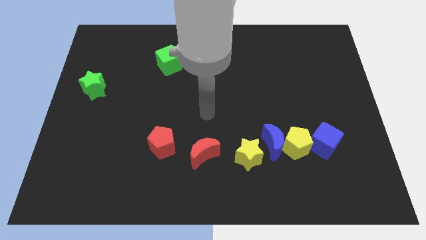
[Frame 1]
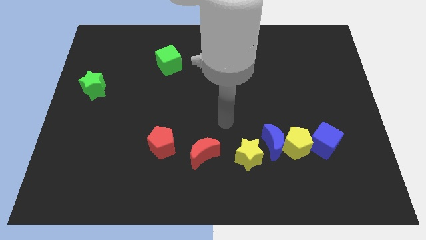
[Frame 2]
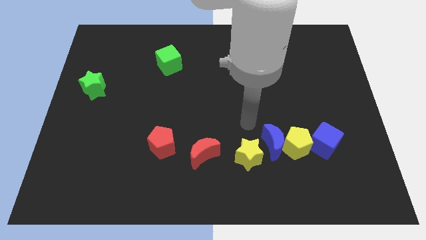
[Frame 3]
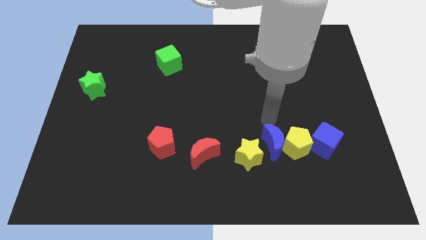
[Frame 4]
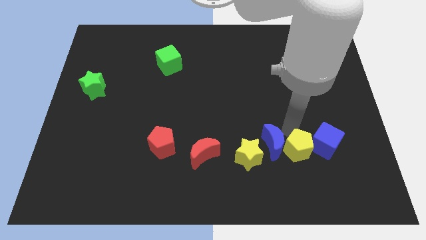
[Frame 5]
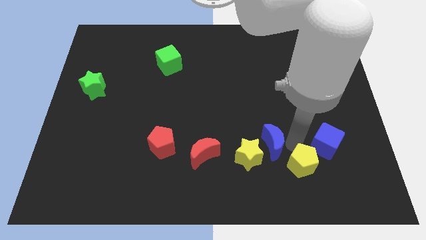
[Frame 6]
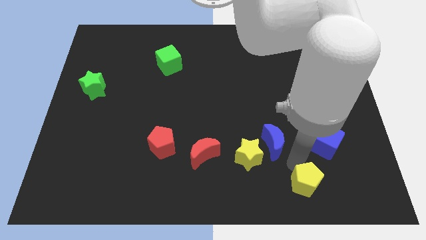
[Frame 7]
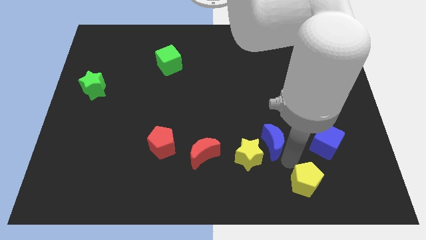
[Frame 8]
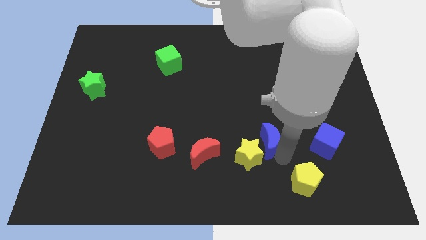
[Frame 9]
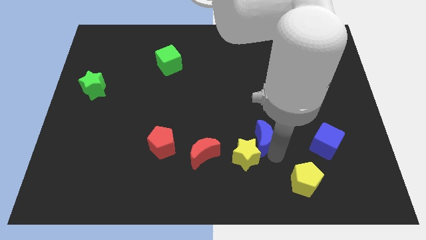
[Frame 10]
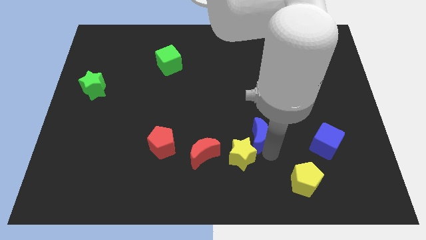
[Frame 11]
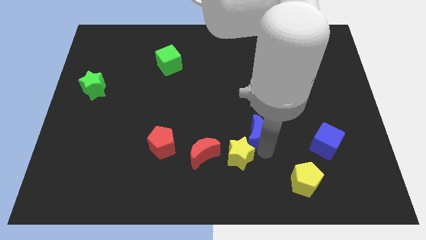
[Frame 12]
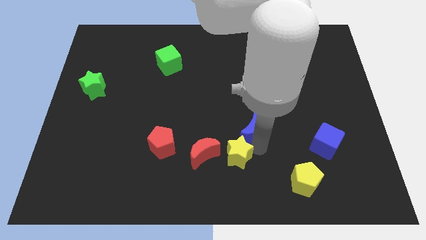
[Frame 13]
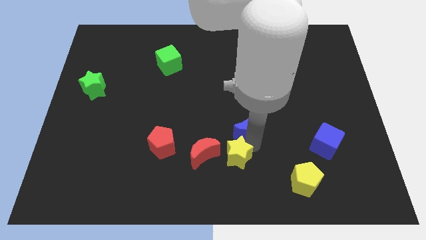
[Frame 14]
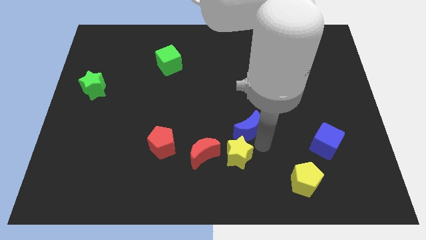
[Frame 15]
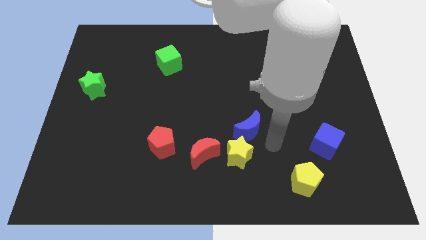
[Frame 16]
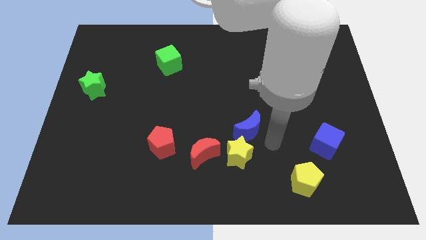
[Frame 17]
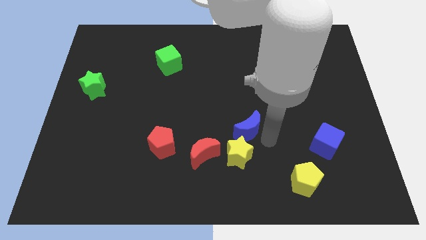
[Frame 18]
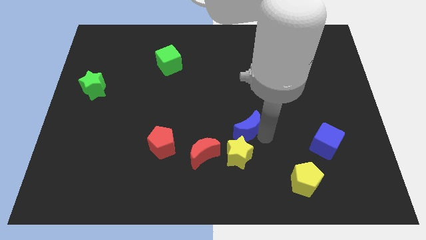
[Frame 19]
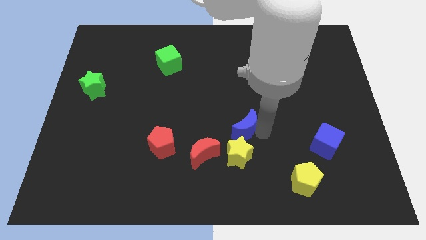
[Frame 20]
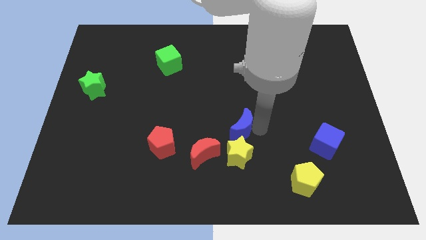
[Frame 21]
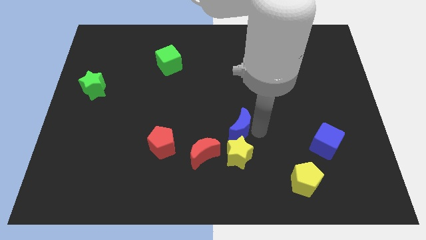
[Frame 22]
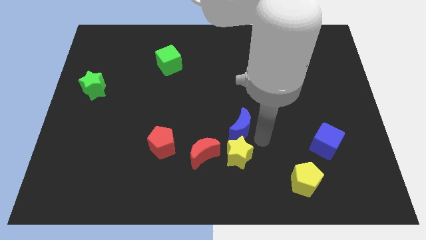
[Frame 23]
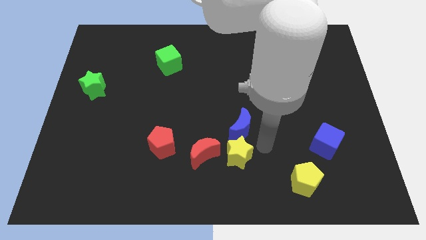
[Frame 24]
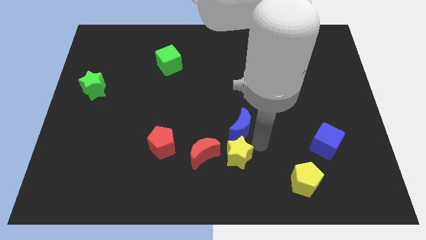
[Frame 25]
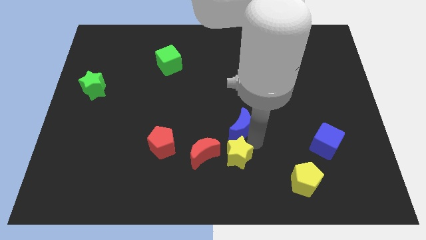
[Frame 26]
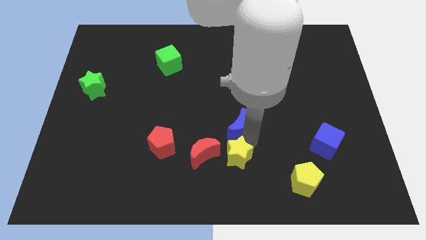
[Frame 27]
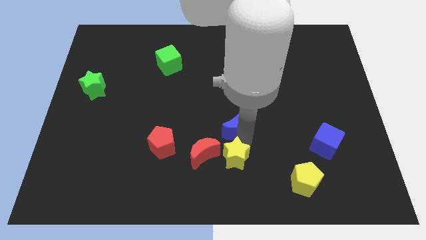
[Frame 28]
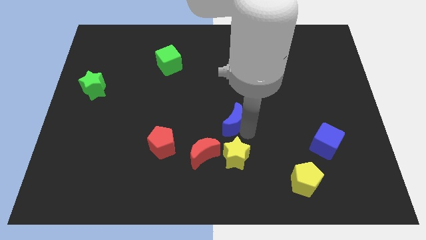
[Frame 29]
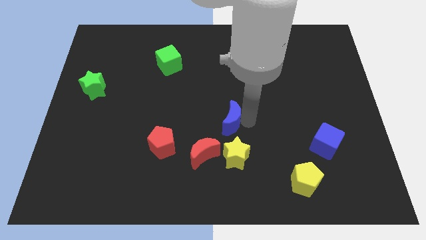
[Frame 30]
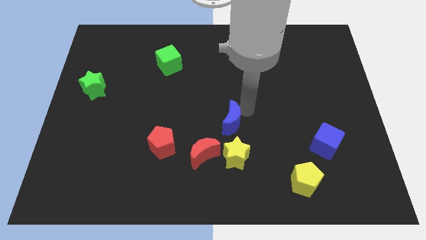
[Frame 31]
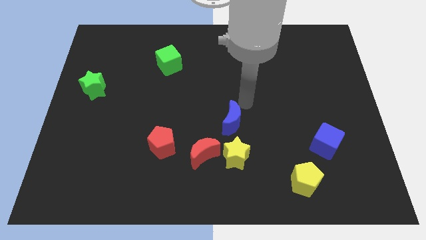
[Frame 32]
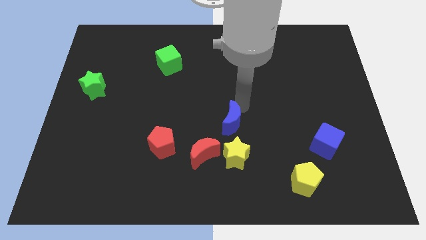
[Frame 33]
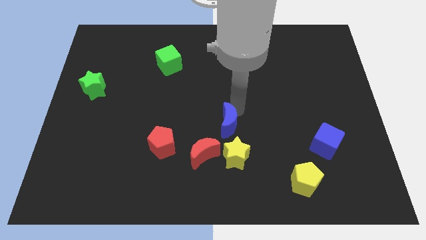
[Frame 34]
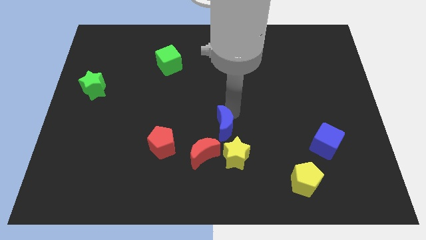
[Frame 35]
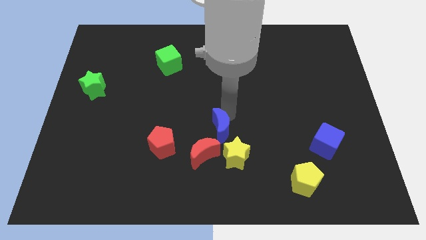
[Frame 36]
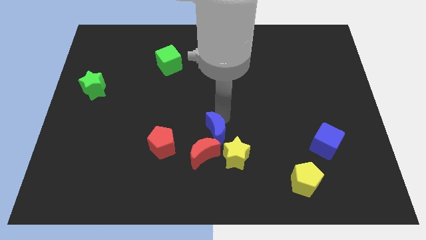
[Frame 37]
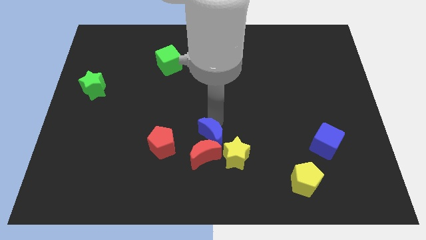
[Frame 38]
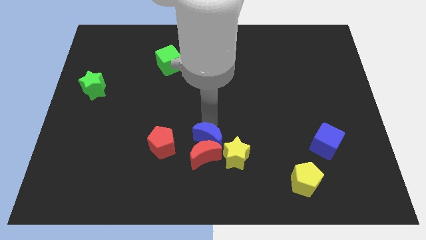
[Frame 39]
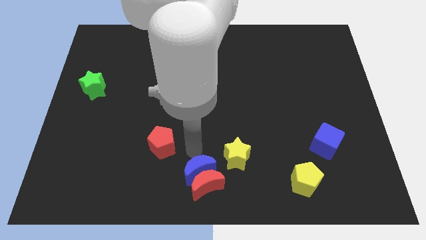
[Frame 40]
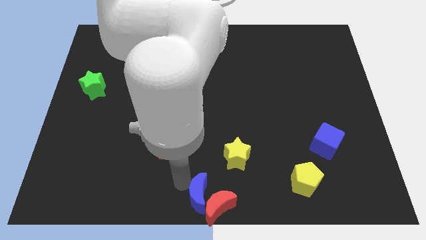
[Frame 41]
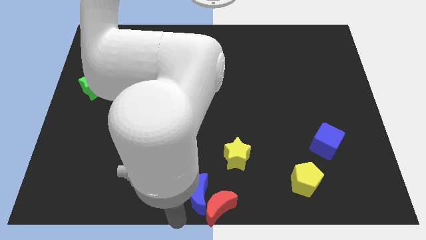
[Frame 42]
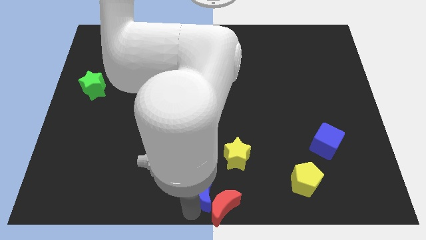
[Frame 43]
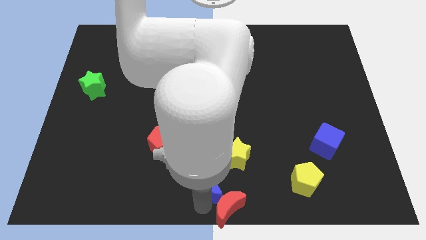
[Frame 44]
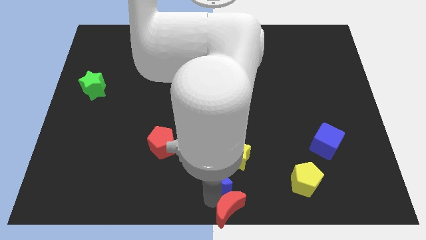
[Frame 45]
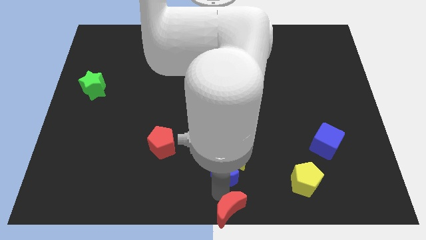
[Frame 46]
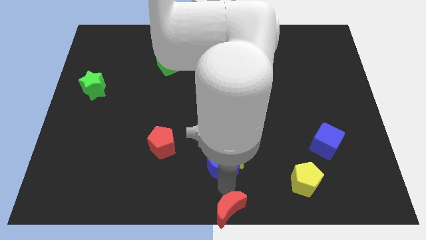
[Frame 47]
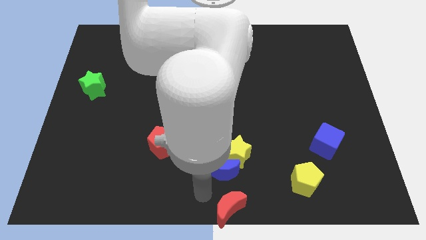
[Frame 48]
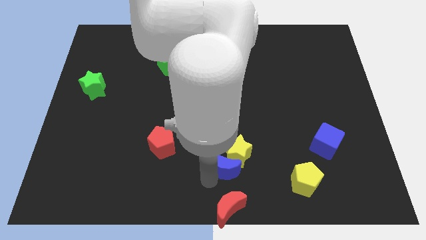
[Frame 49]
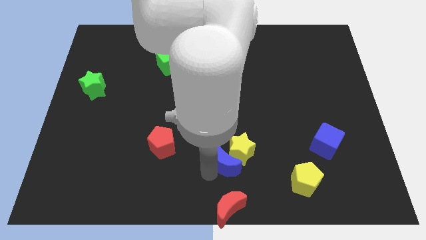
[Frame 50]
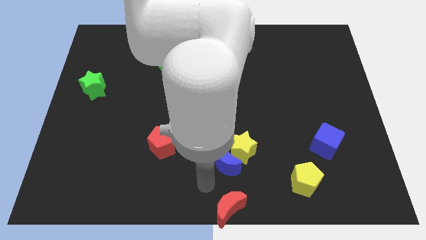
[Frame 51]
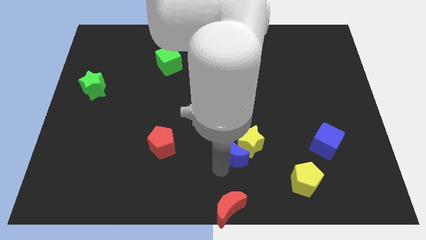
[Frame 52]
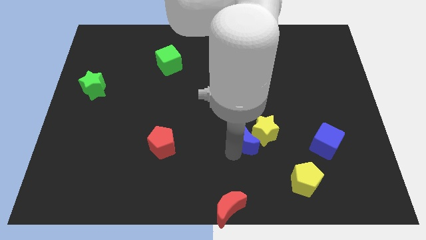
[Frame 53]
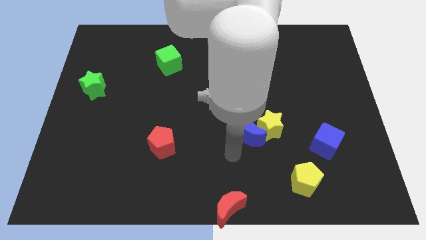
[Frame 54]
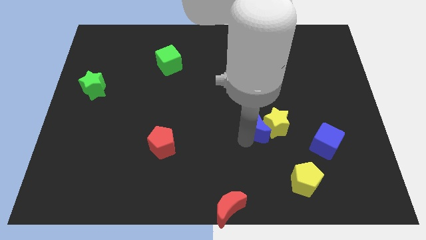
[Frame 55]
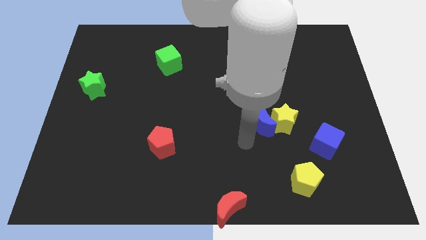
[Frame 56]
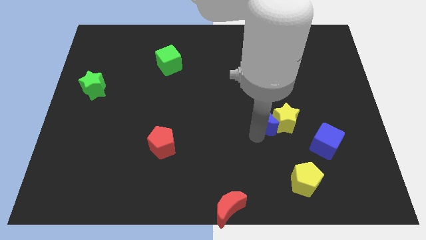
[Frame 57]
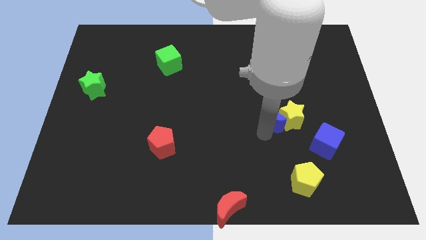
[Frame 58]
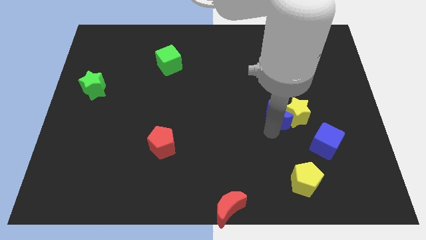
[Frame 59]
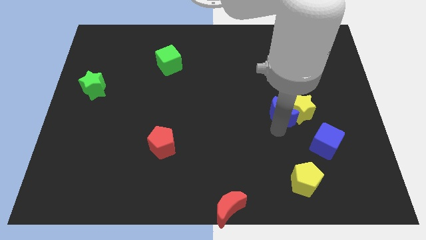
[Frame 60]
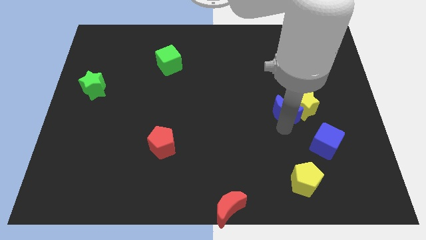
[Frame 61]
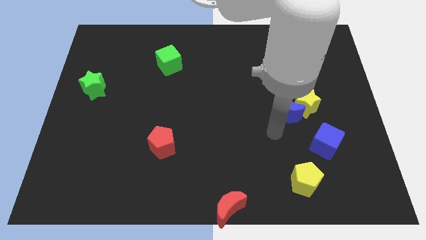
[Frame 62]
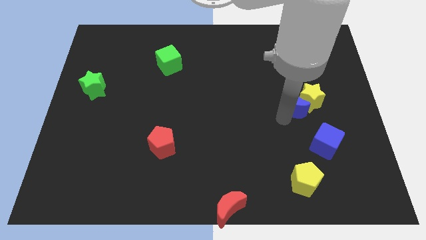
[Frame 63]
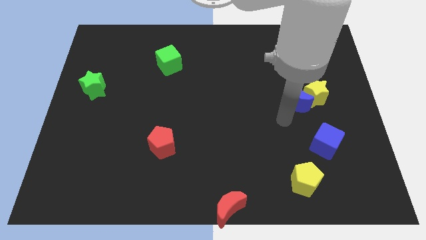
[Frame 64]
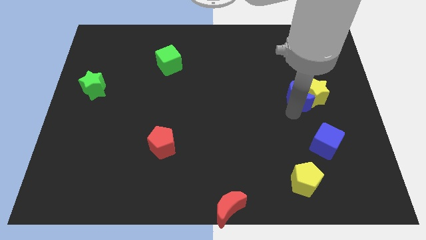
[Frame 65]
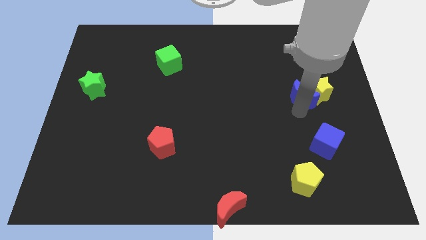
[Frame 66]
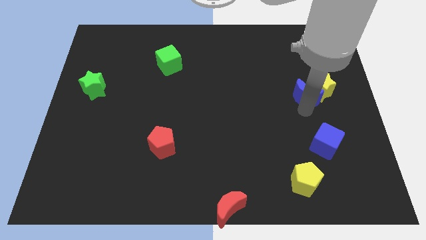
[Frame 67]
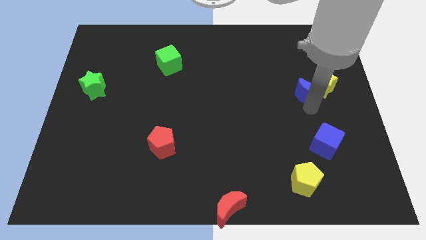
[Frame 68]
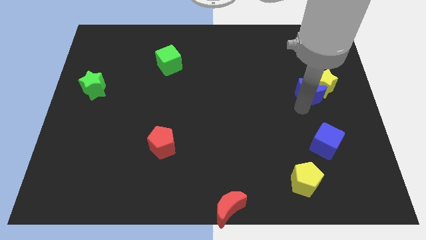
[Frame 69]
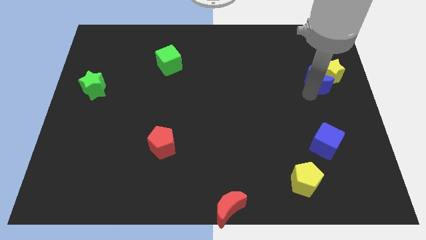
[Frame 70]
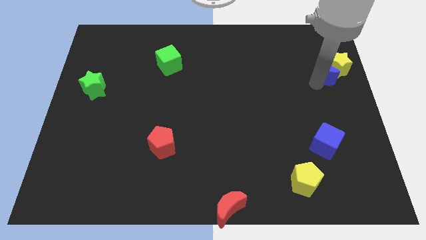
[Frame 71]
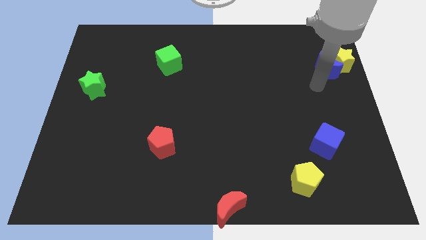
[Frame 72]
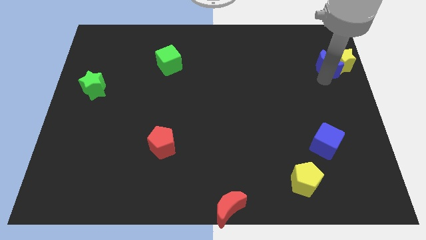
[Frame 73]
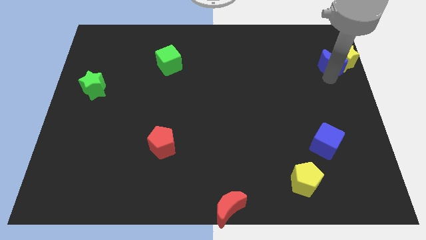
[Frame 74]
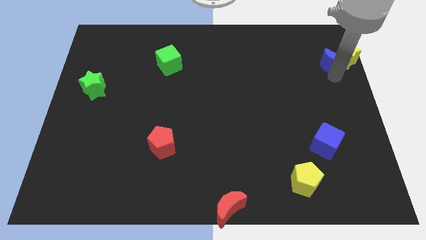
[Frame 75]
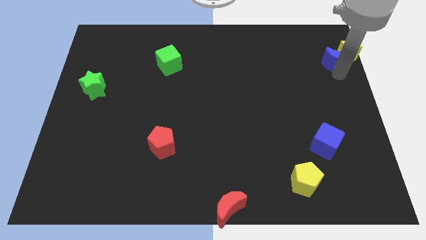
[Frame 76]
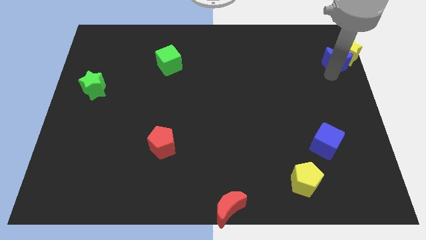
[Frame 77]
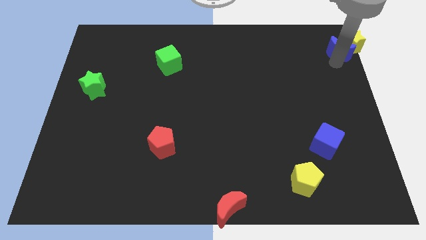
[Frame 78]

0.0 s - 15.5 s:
move the blue moon to the top right
